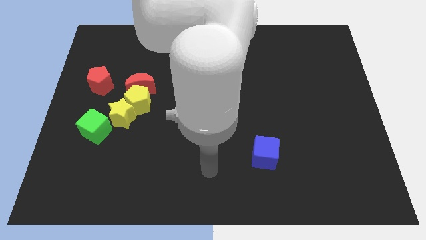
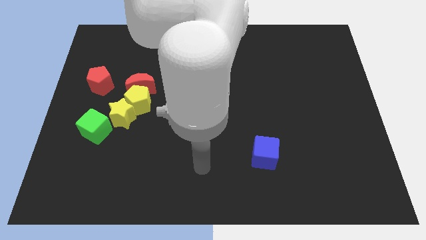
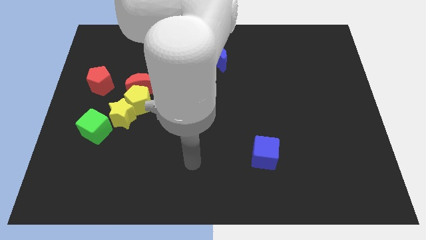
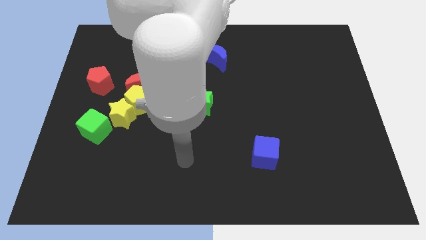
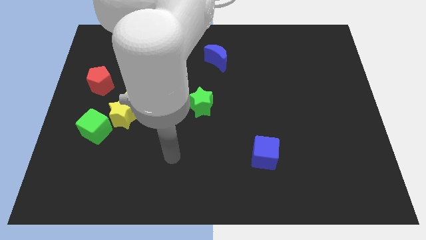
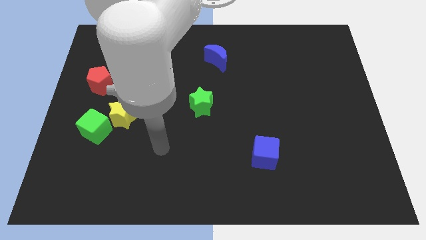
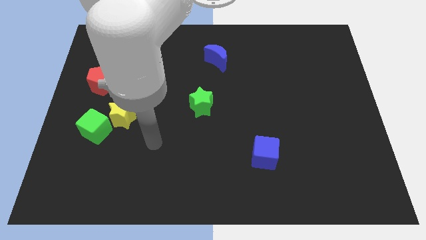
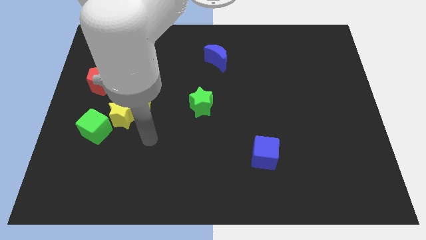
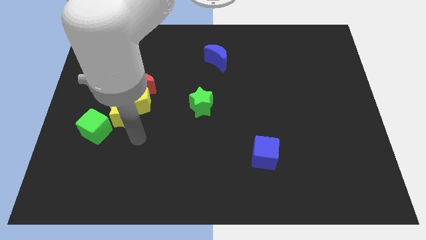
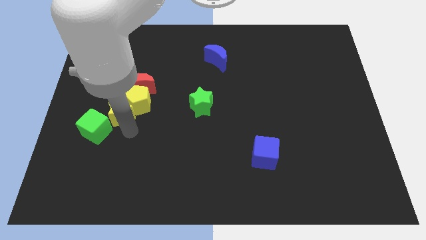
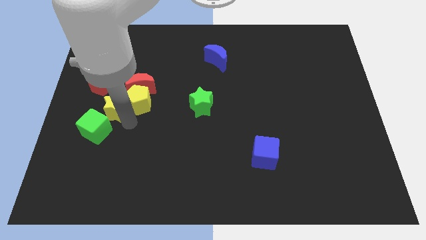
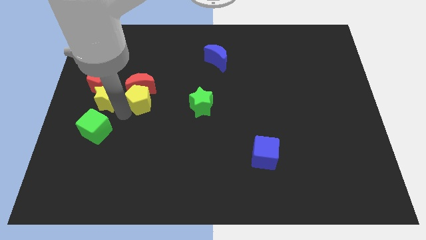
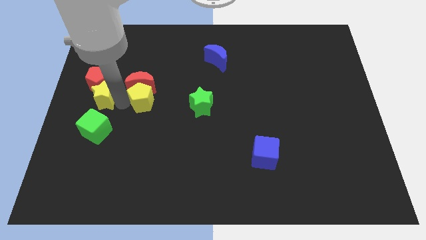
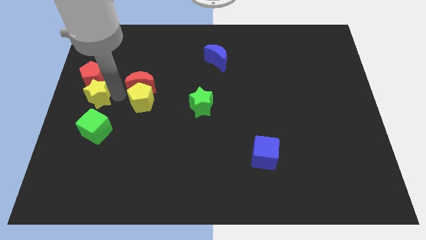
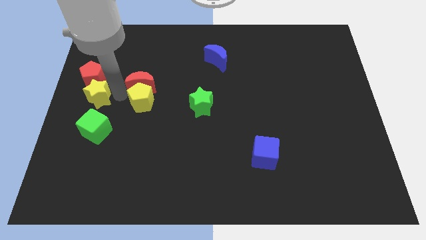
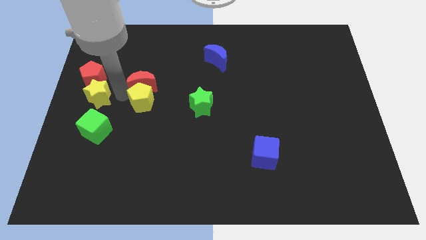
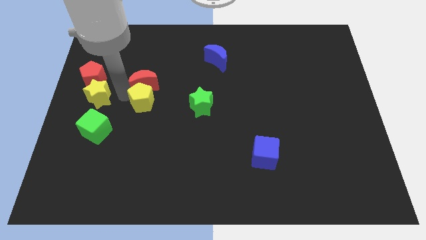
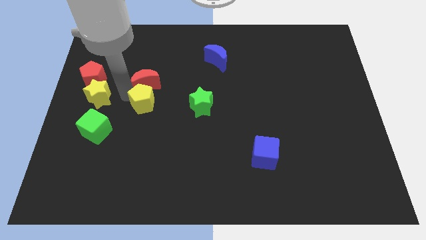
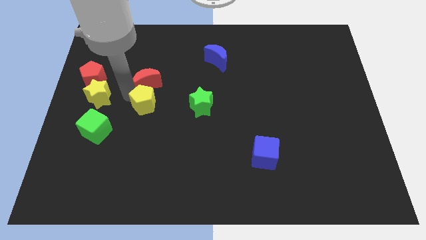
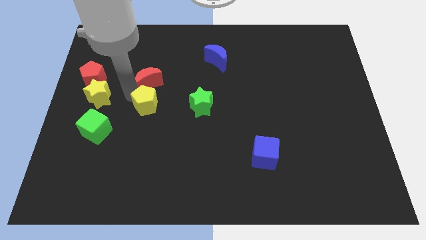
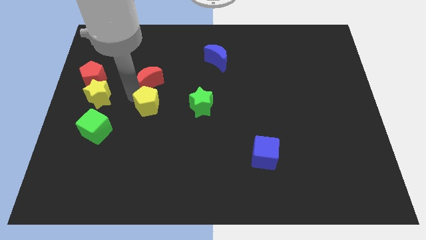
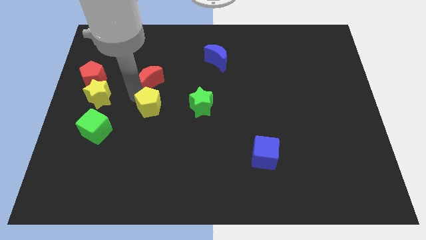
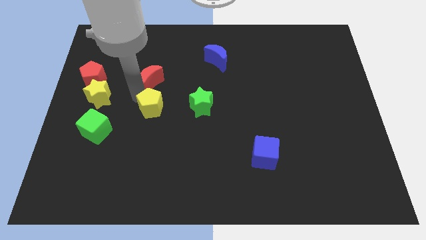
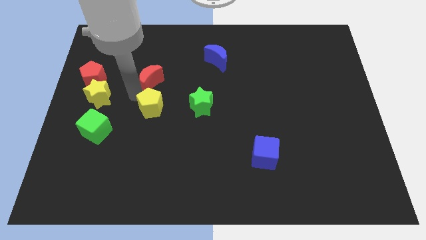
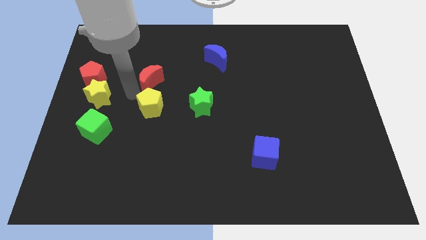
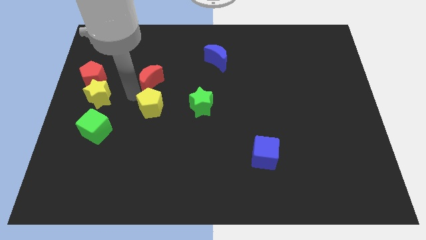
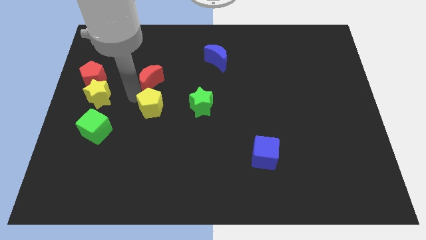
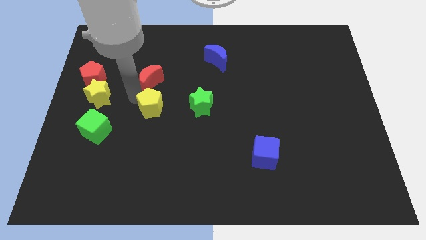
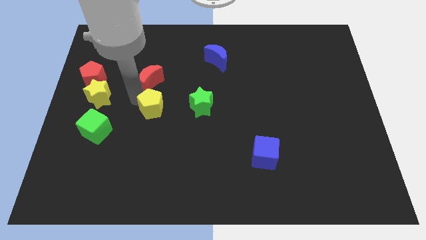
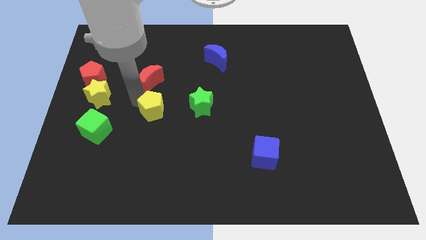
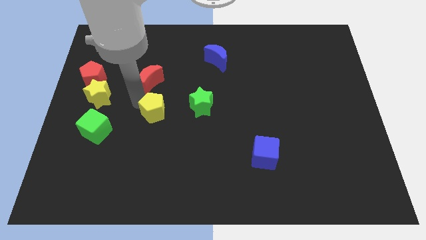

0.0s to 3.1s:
pull the yellow pentagon apart from the red moon and yellow star

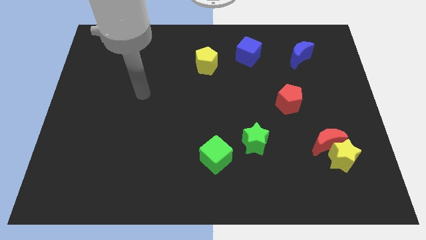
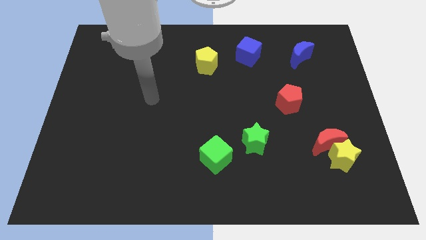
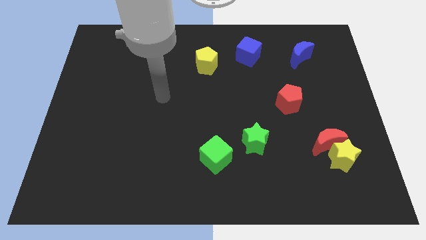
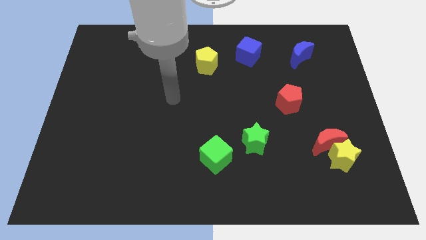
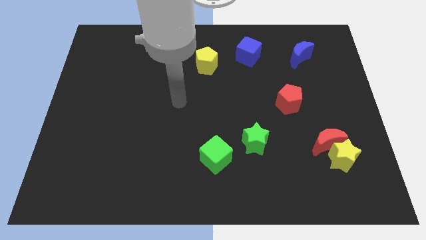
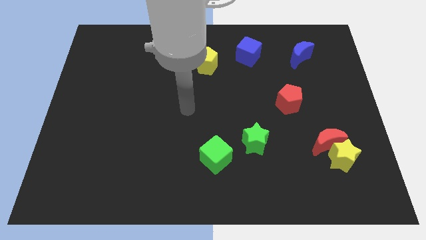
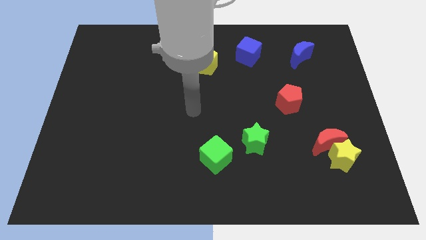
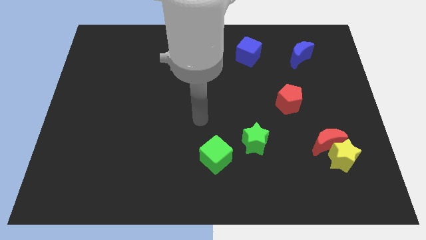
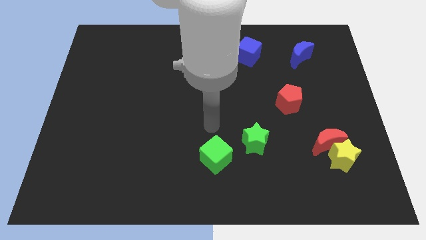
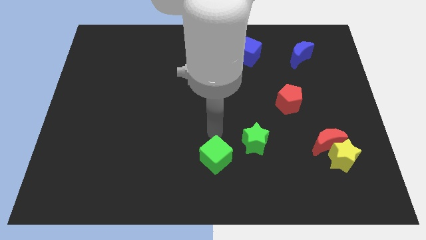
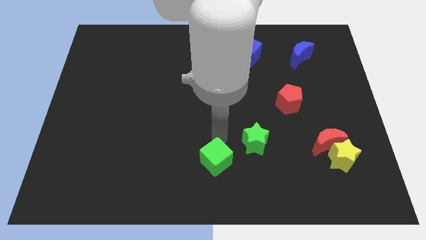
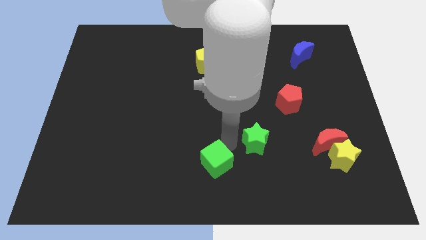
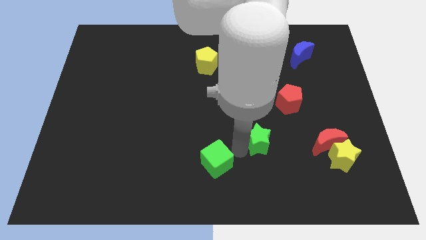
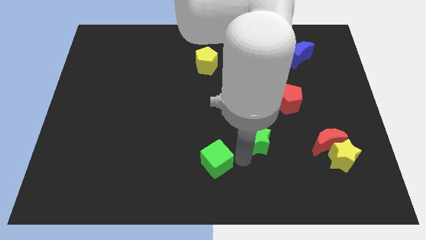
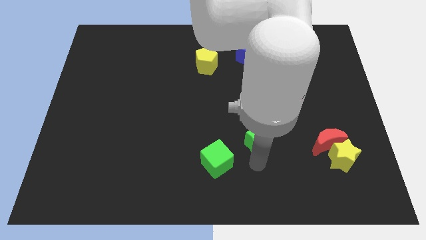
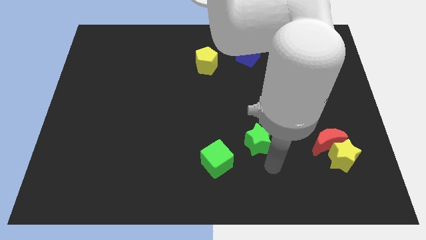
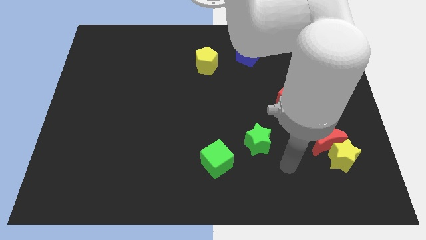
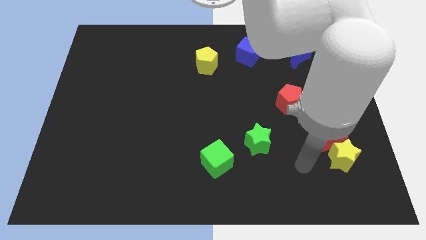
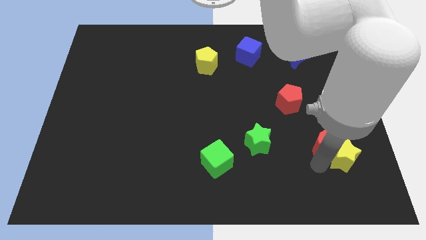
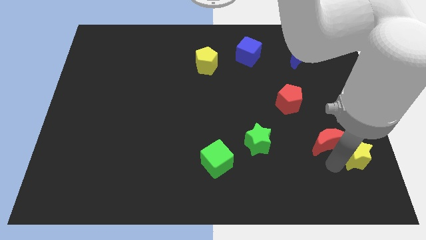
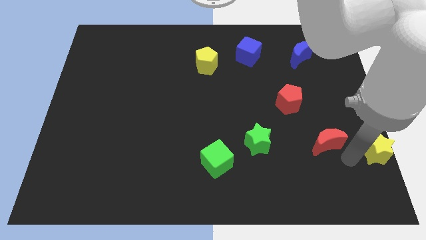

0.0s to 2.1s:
move the red moon away from the yellow star

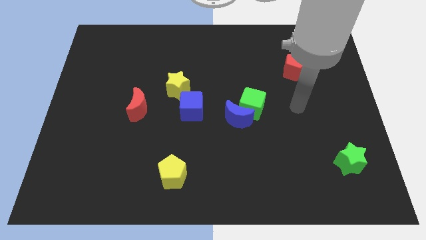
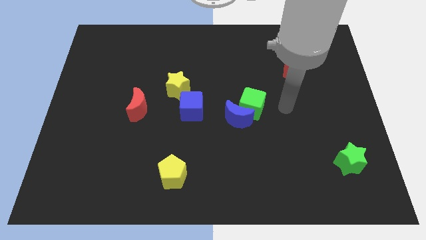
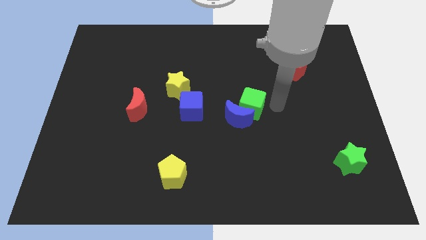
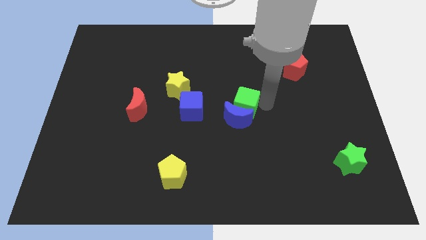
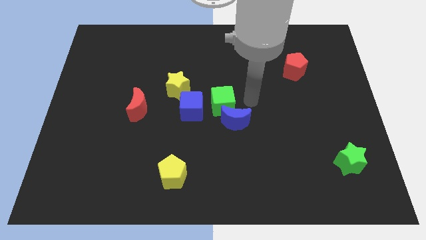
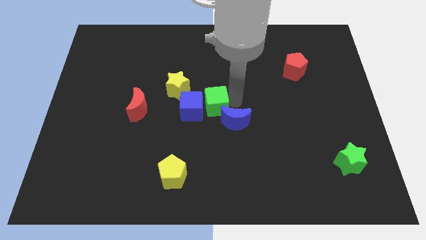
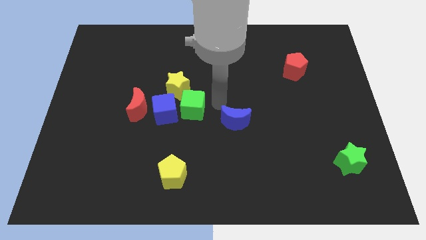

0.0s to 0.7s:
pull the blue moon apart from the green cube

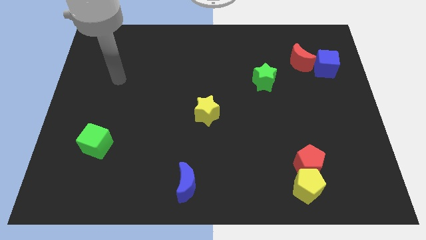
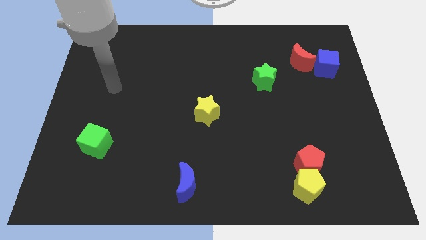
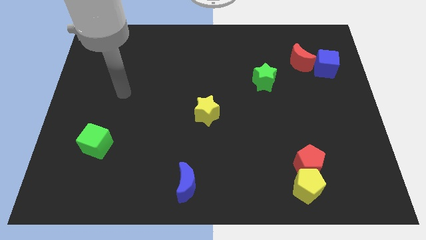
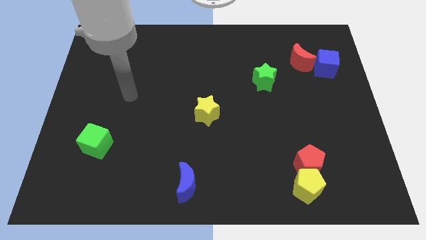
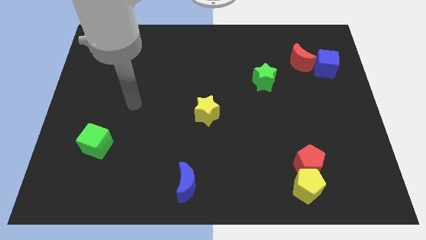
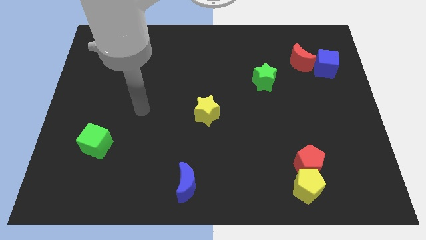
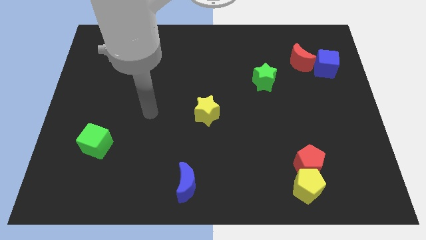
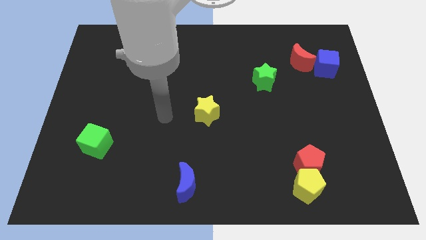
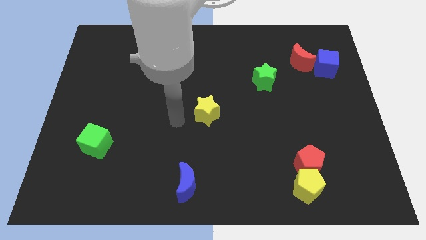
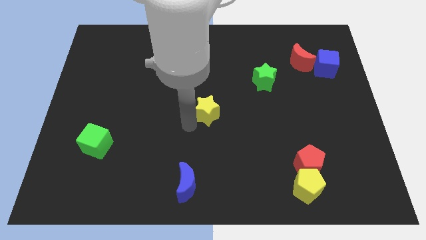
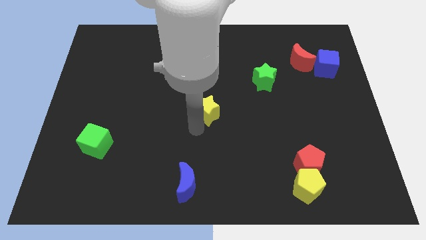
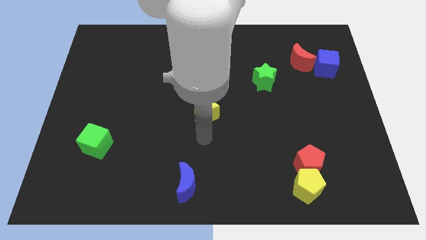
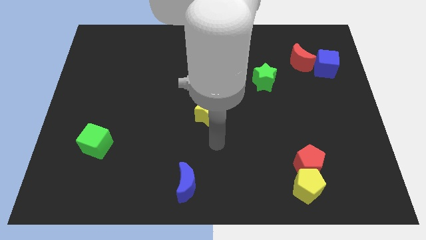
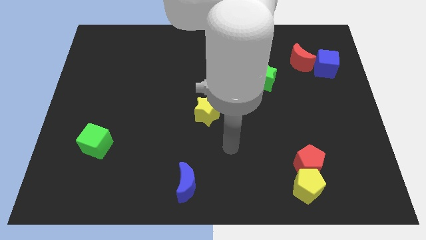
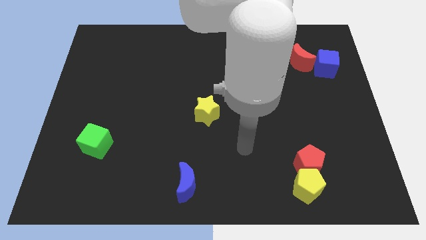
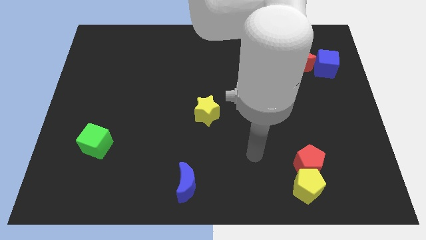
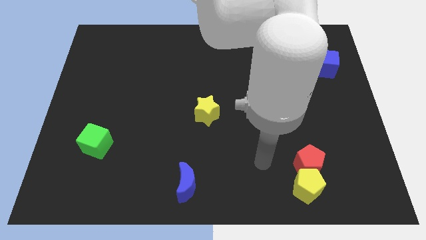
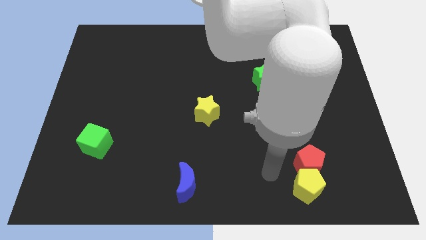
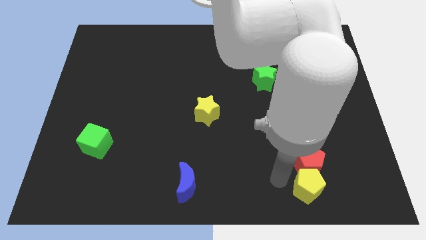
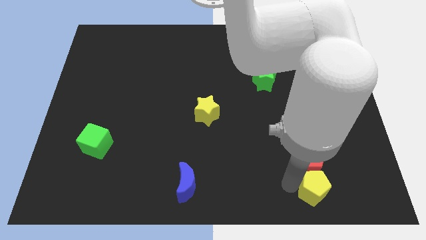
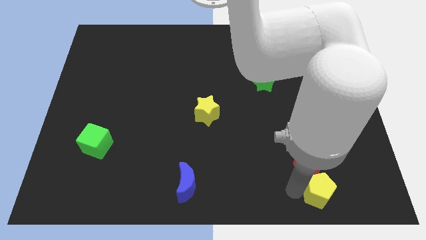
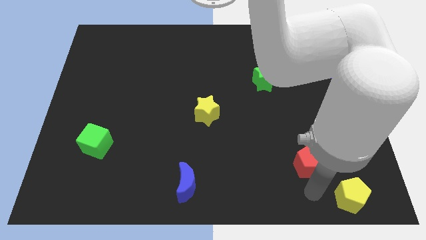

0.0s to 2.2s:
move the red pentagon away from the yellow pentagon

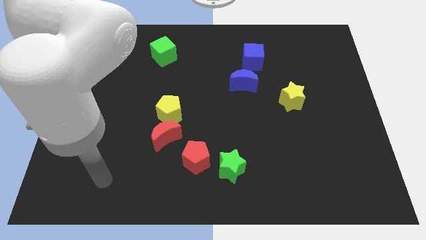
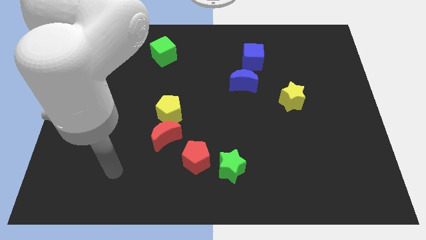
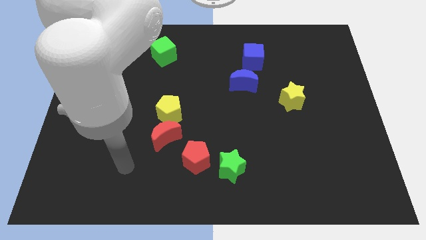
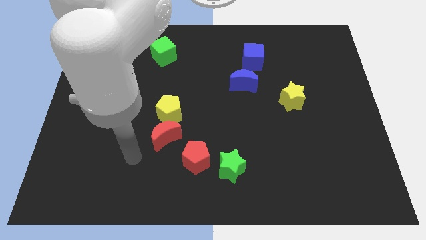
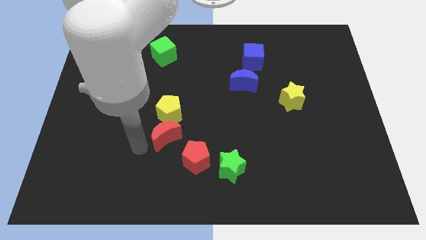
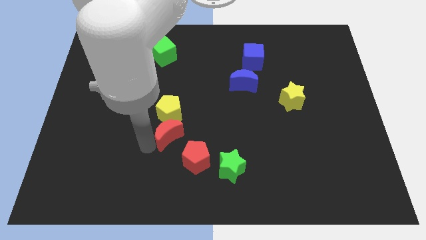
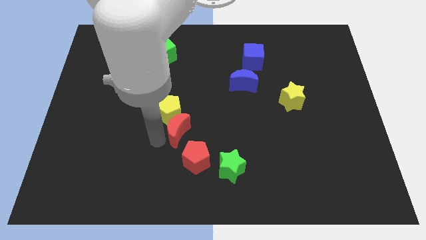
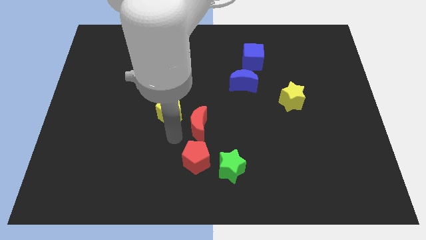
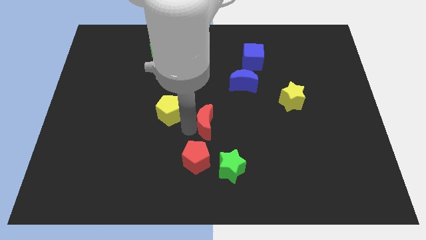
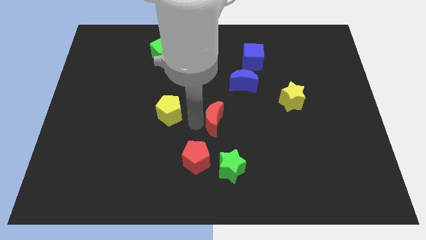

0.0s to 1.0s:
move the yellow pentagon away from the red moon

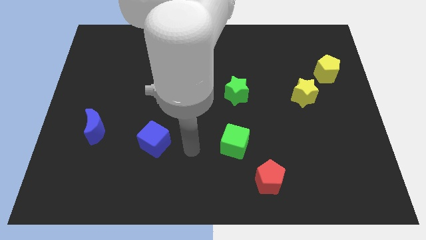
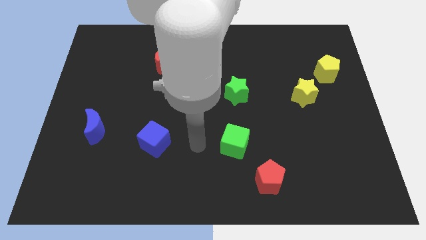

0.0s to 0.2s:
pull the yellow star apart from the yellow pentagon
